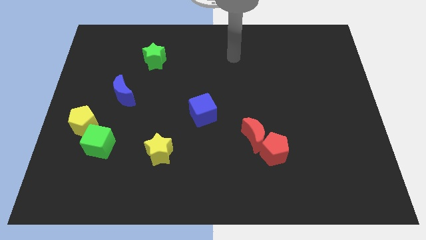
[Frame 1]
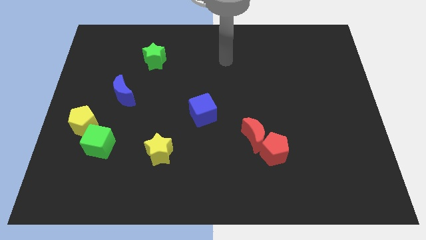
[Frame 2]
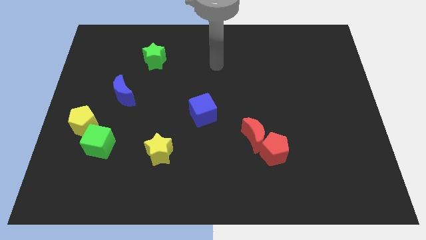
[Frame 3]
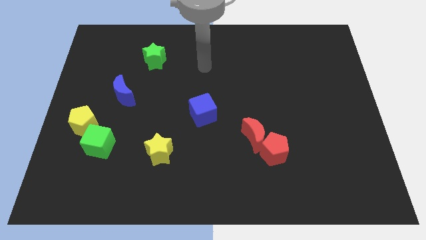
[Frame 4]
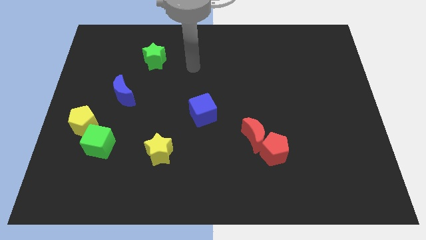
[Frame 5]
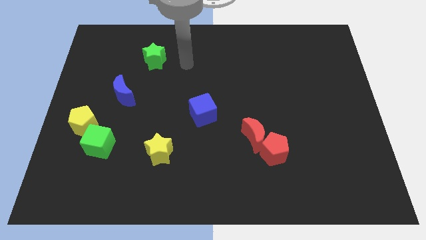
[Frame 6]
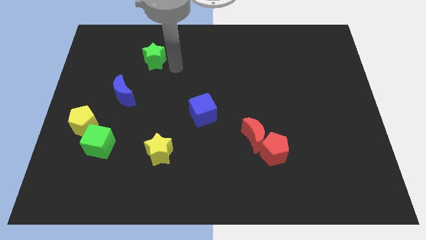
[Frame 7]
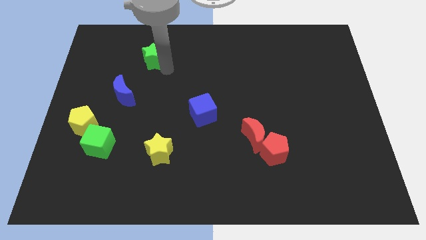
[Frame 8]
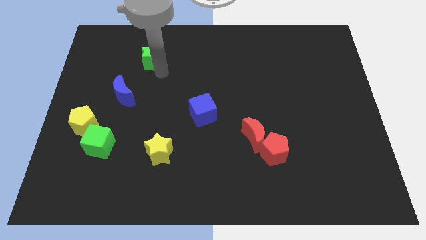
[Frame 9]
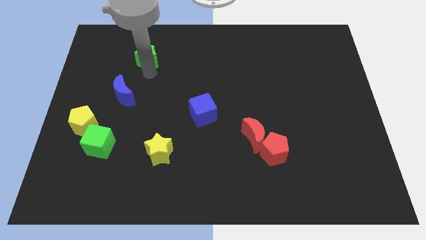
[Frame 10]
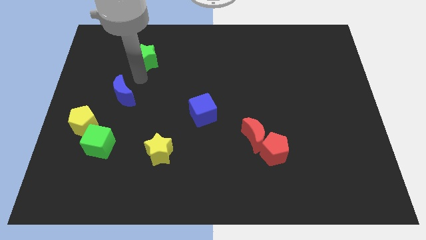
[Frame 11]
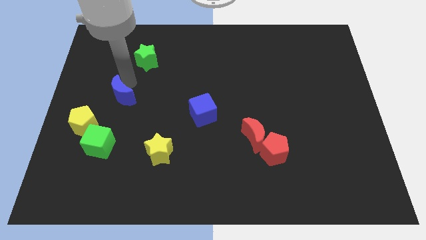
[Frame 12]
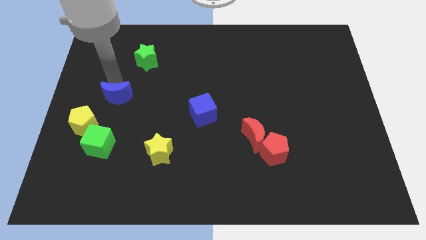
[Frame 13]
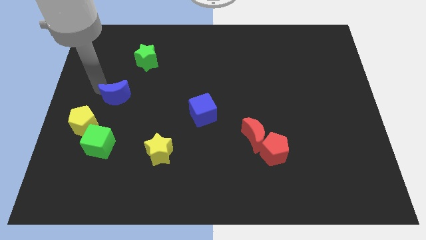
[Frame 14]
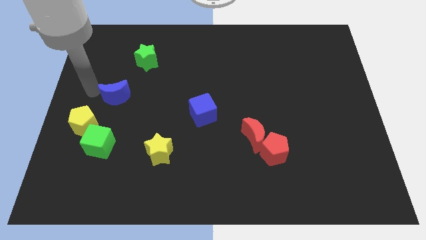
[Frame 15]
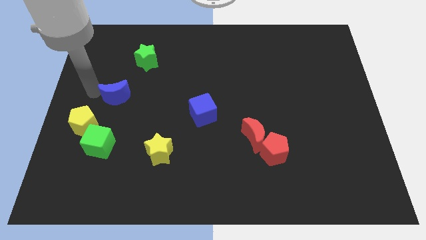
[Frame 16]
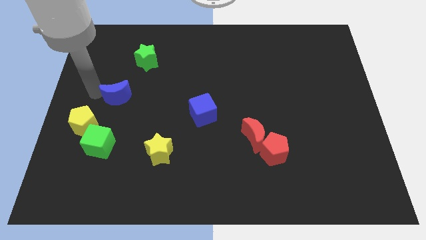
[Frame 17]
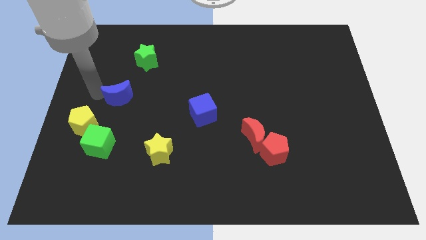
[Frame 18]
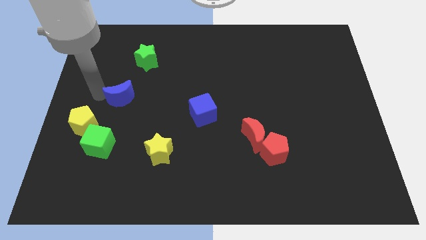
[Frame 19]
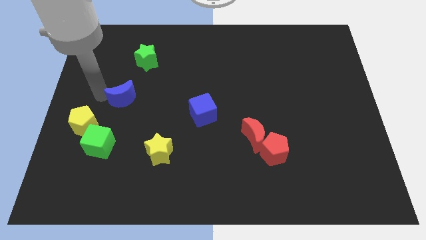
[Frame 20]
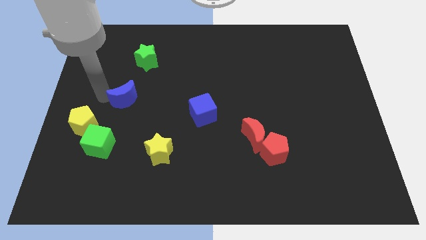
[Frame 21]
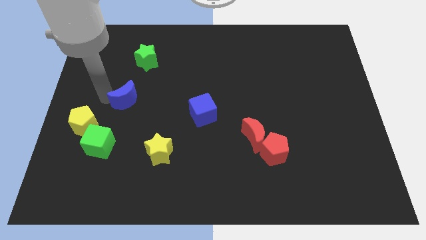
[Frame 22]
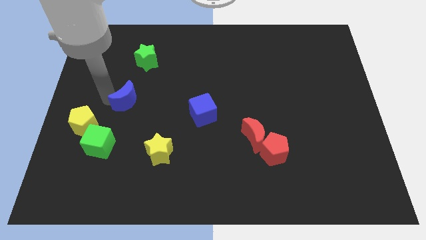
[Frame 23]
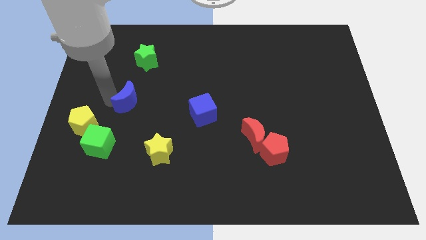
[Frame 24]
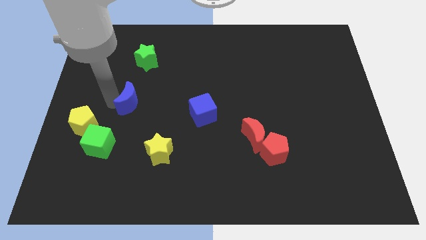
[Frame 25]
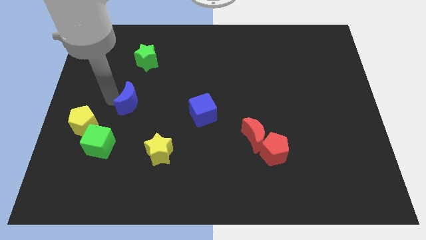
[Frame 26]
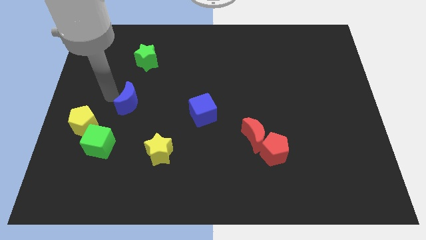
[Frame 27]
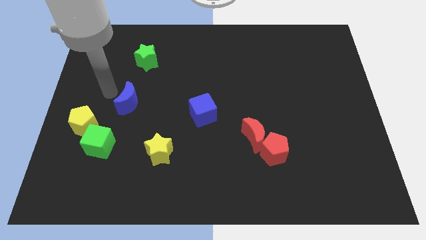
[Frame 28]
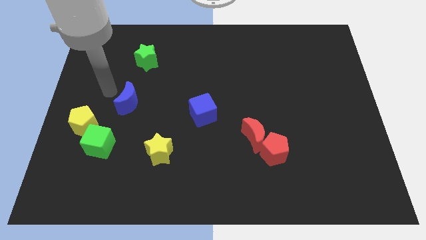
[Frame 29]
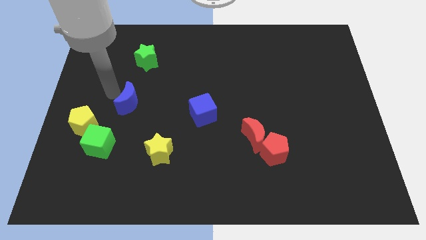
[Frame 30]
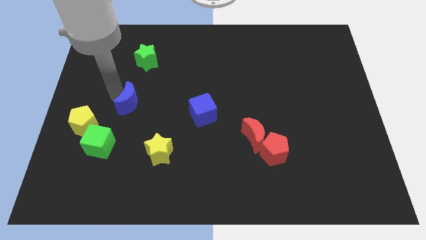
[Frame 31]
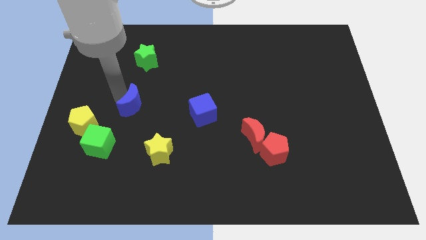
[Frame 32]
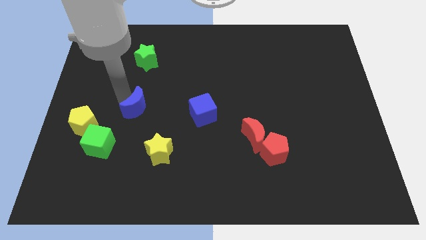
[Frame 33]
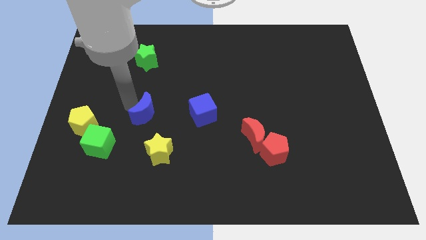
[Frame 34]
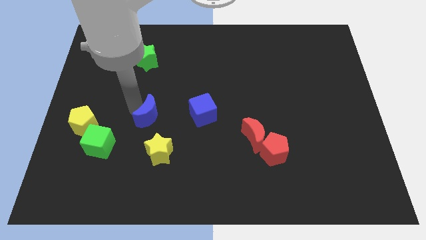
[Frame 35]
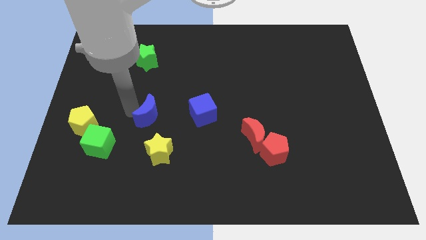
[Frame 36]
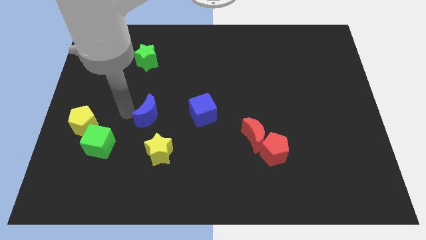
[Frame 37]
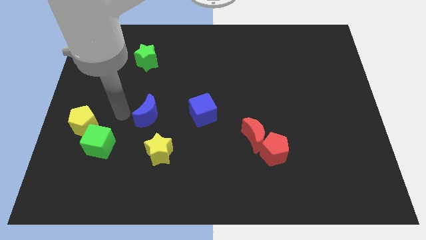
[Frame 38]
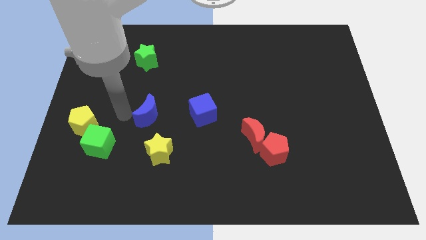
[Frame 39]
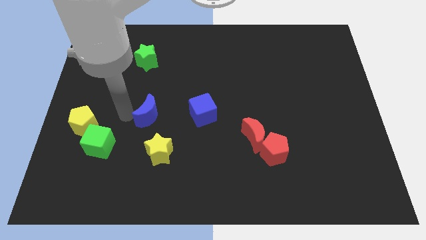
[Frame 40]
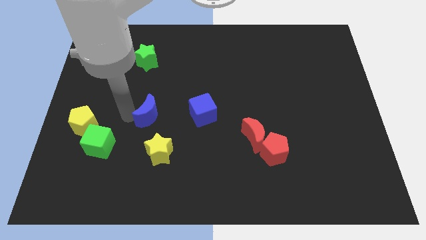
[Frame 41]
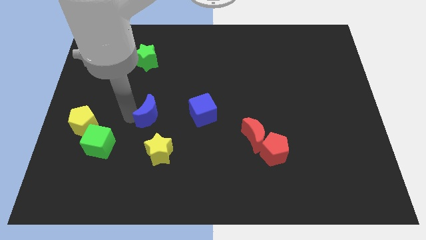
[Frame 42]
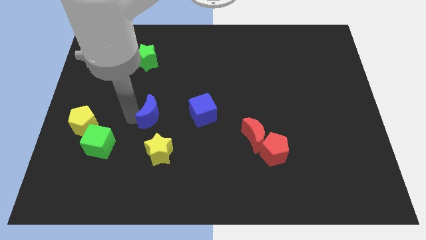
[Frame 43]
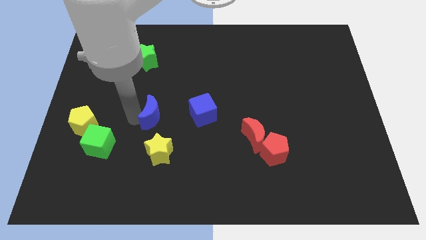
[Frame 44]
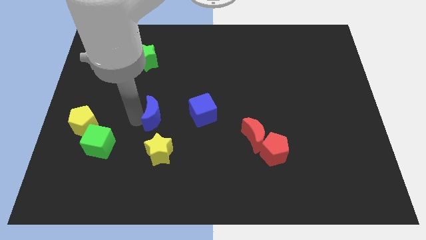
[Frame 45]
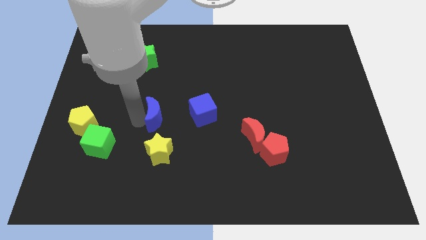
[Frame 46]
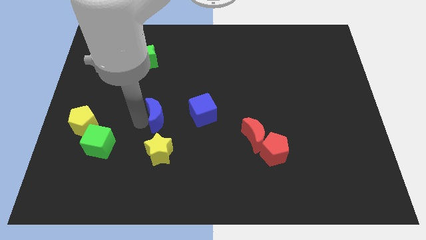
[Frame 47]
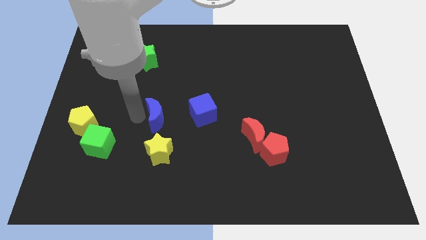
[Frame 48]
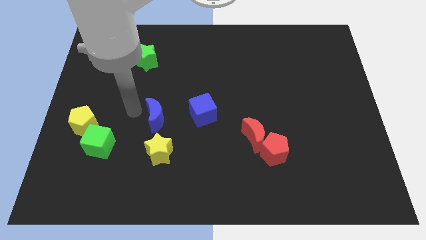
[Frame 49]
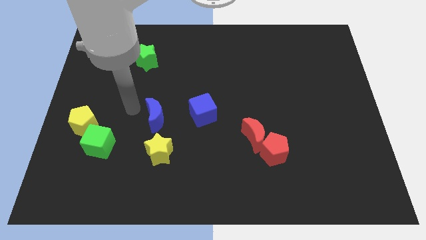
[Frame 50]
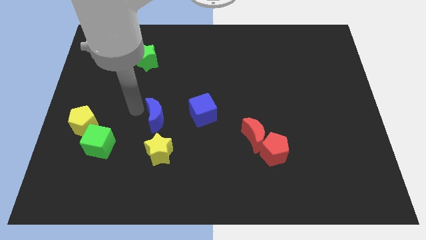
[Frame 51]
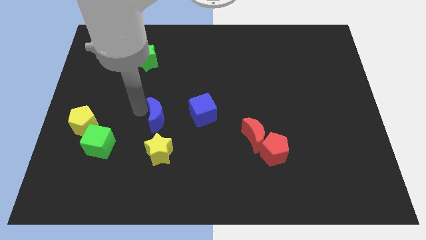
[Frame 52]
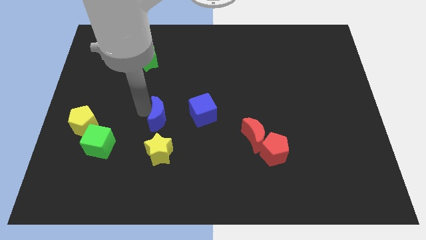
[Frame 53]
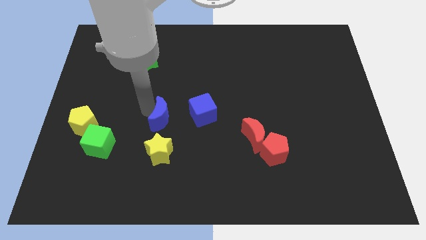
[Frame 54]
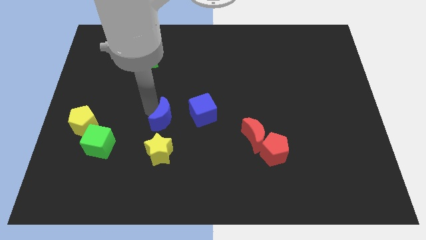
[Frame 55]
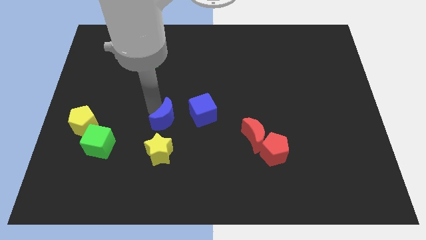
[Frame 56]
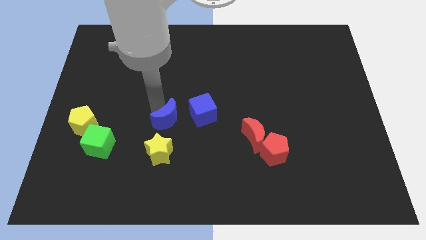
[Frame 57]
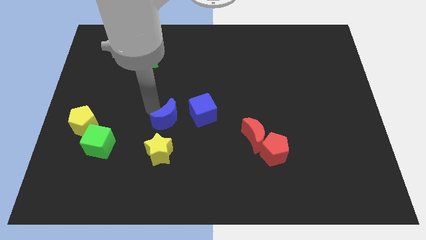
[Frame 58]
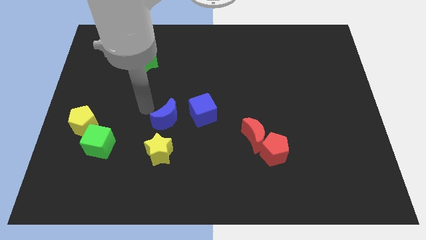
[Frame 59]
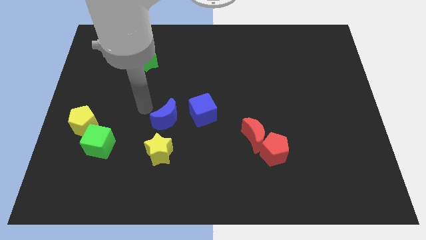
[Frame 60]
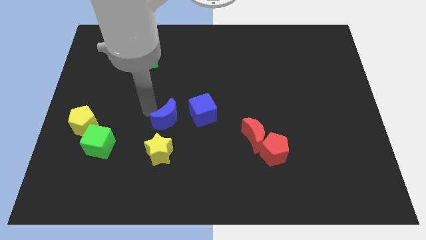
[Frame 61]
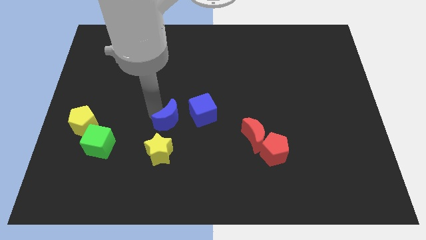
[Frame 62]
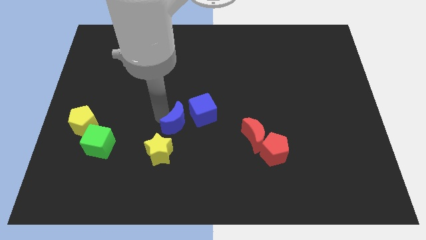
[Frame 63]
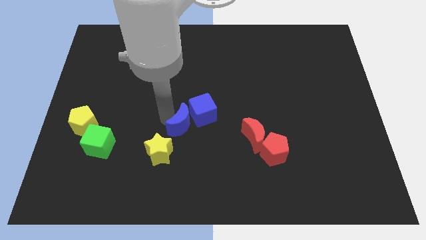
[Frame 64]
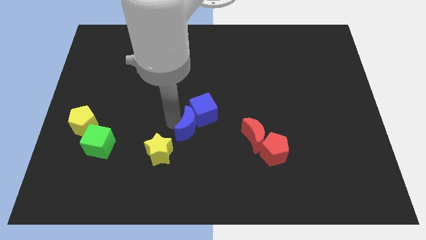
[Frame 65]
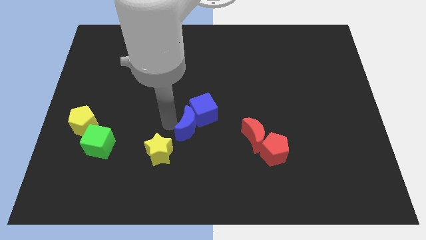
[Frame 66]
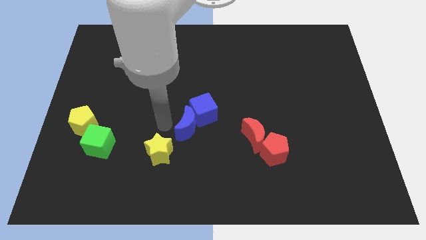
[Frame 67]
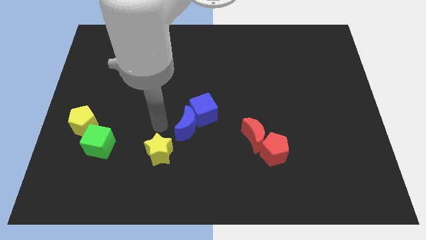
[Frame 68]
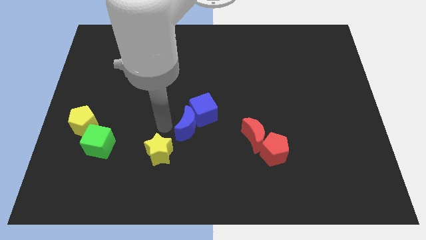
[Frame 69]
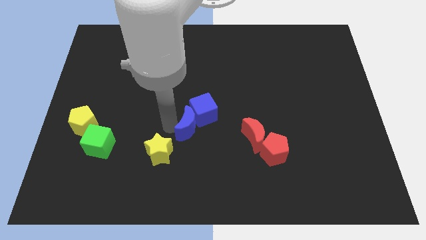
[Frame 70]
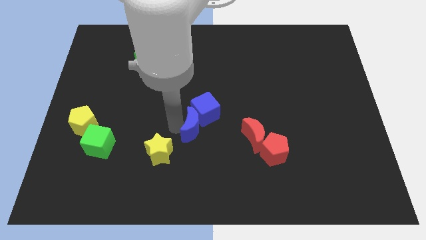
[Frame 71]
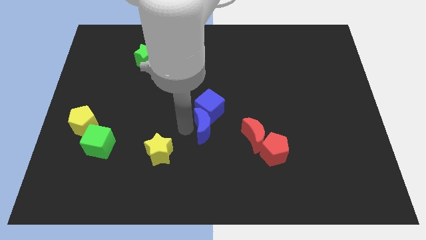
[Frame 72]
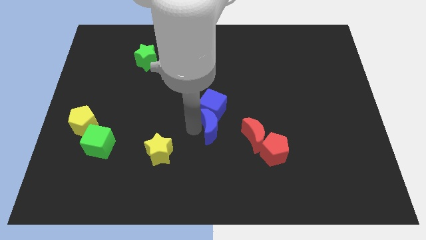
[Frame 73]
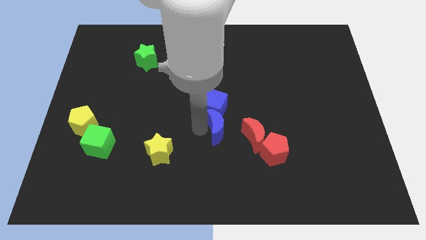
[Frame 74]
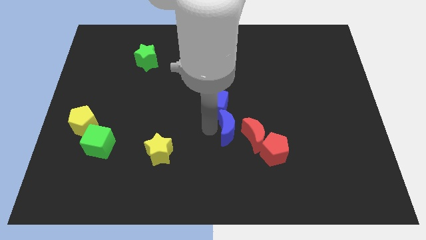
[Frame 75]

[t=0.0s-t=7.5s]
push the blue moon towards the red moon
